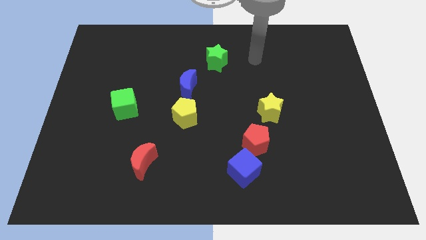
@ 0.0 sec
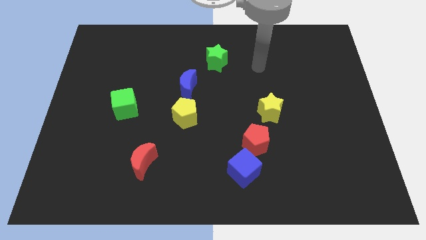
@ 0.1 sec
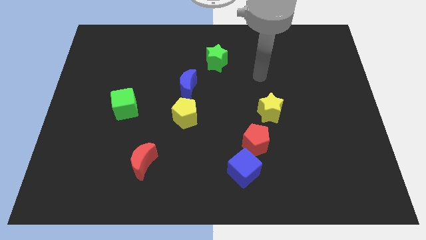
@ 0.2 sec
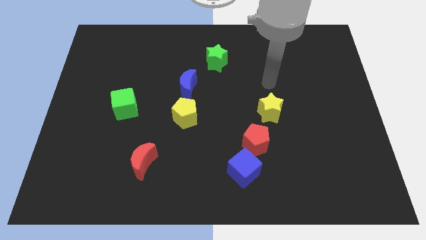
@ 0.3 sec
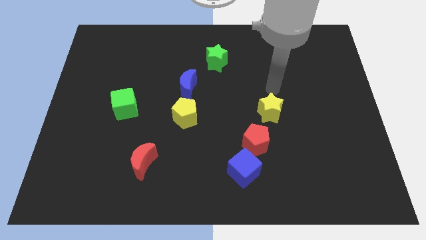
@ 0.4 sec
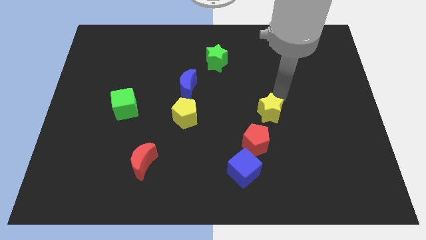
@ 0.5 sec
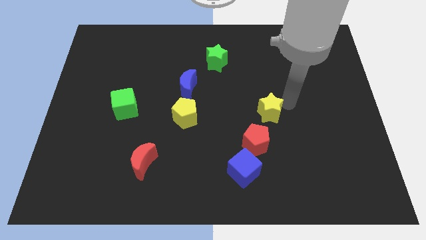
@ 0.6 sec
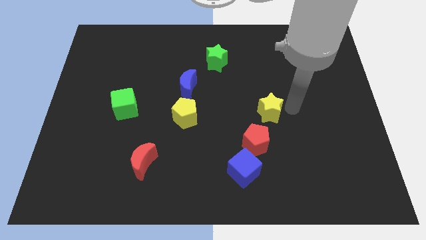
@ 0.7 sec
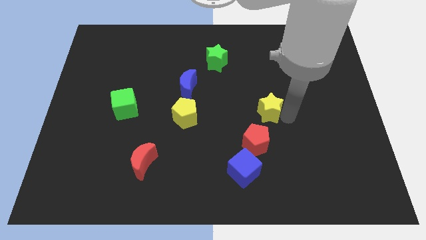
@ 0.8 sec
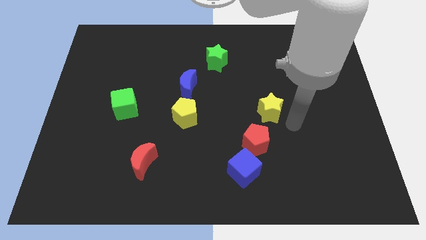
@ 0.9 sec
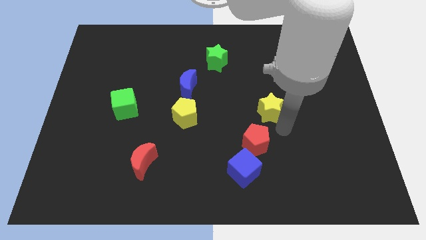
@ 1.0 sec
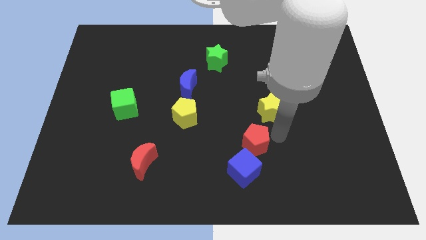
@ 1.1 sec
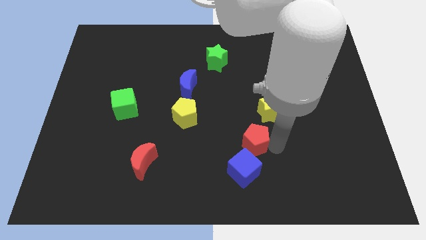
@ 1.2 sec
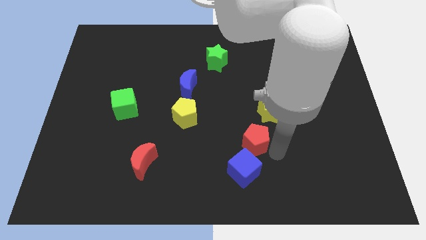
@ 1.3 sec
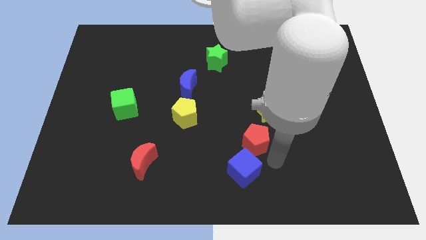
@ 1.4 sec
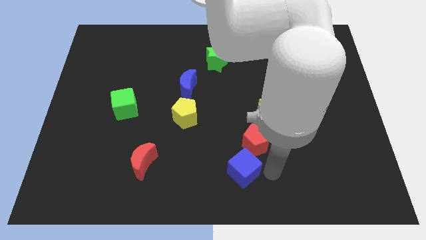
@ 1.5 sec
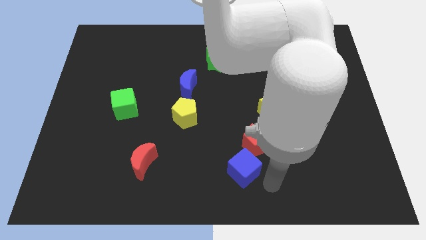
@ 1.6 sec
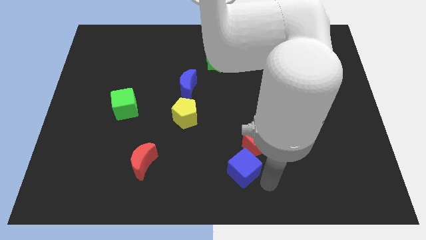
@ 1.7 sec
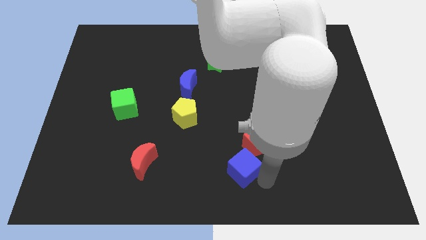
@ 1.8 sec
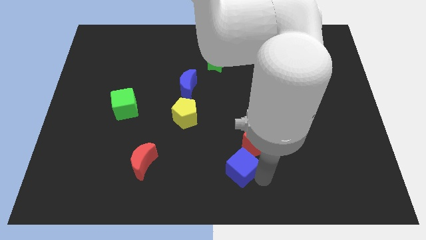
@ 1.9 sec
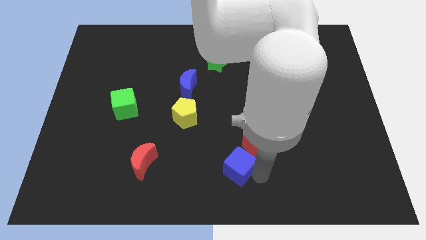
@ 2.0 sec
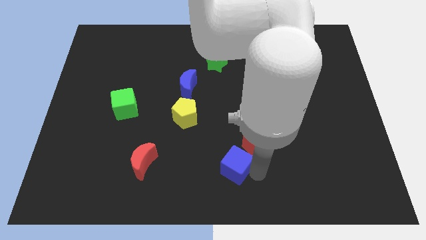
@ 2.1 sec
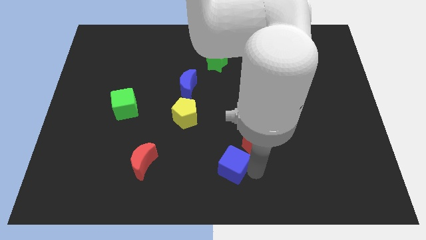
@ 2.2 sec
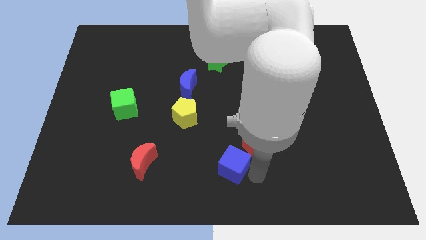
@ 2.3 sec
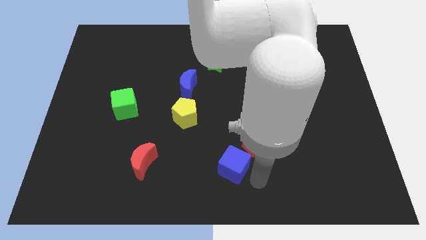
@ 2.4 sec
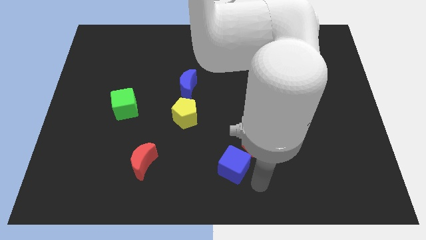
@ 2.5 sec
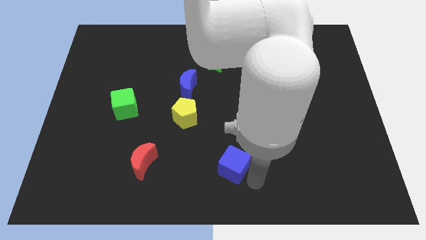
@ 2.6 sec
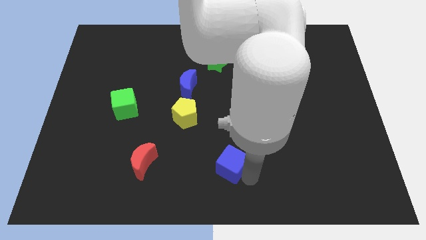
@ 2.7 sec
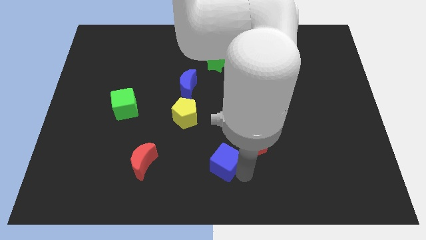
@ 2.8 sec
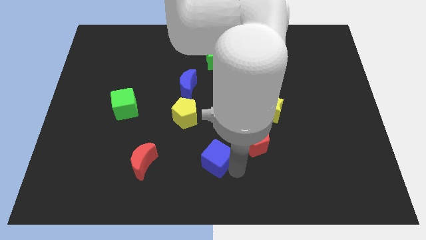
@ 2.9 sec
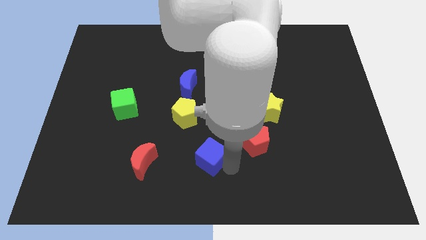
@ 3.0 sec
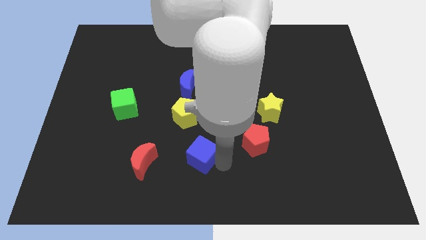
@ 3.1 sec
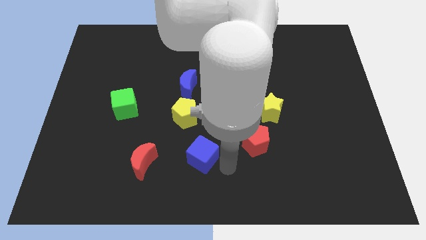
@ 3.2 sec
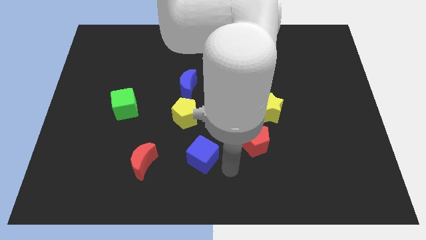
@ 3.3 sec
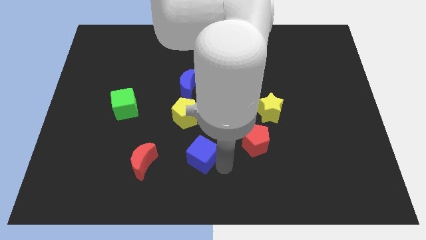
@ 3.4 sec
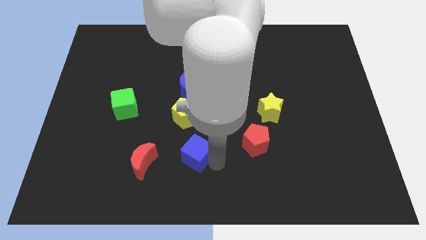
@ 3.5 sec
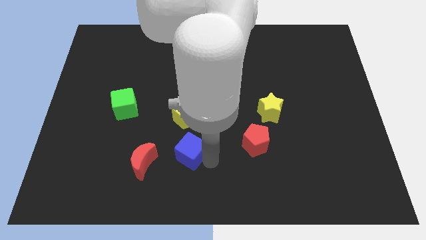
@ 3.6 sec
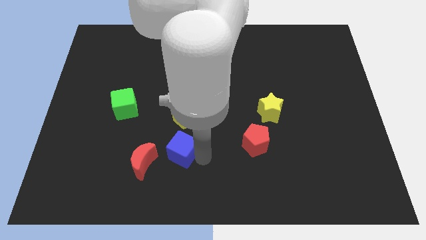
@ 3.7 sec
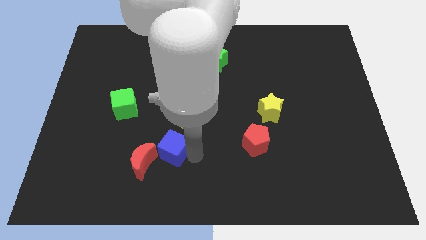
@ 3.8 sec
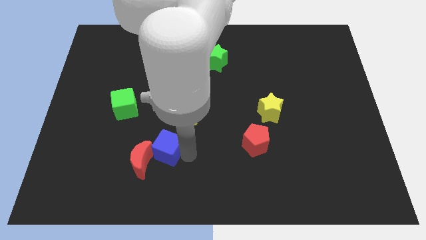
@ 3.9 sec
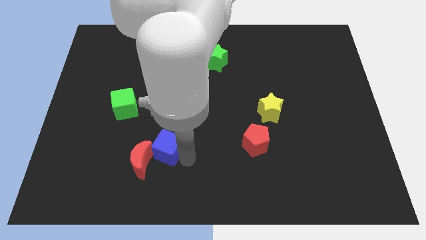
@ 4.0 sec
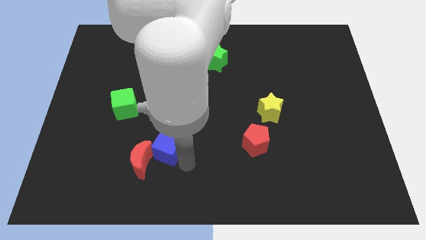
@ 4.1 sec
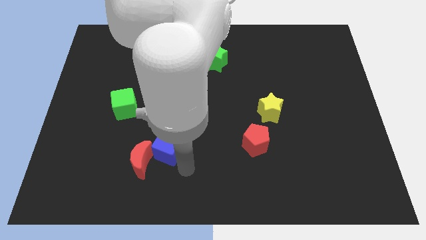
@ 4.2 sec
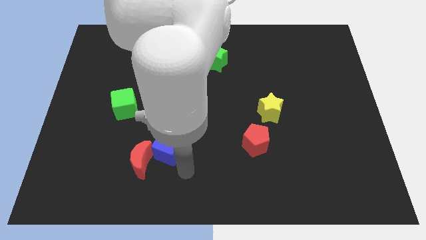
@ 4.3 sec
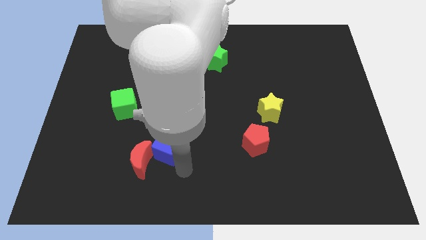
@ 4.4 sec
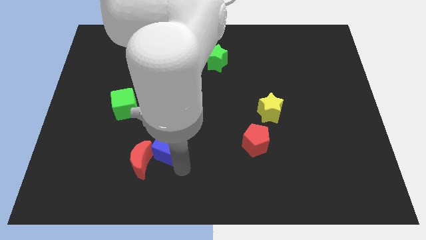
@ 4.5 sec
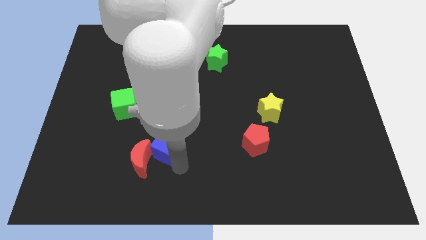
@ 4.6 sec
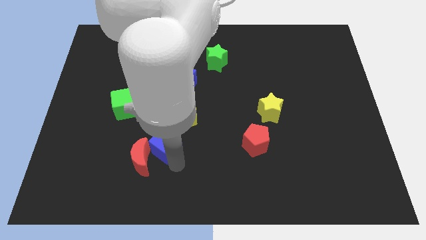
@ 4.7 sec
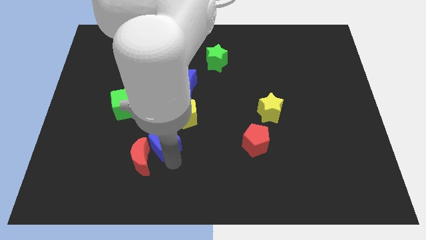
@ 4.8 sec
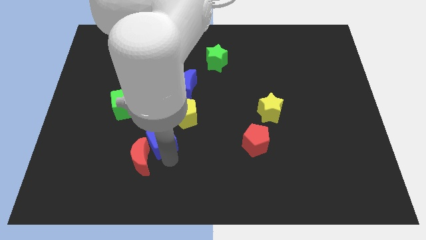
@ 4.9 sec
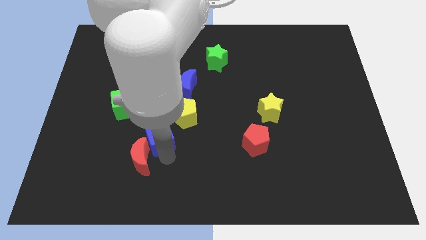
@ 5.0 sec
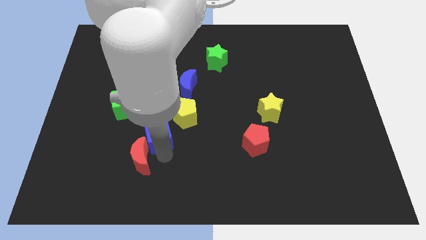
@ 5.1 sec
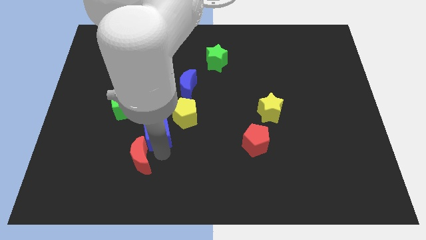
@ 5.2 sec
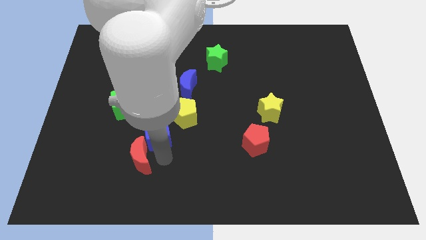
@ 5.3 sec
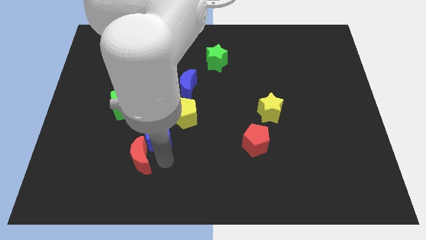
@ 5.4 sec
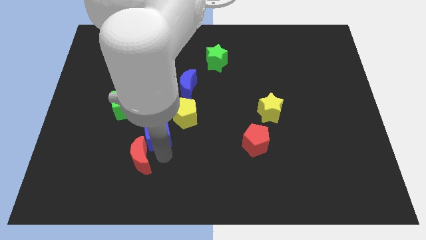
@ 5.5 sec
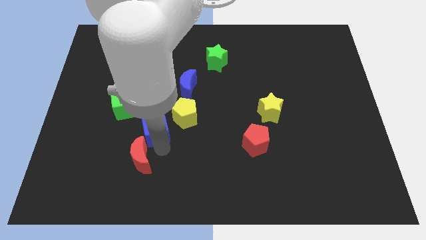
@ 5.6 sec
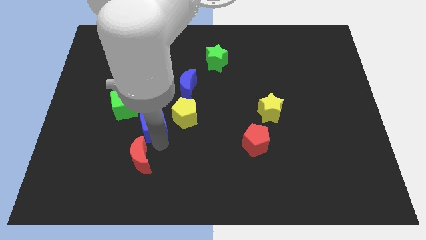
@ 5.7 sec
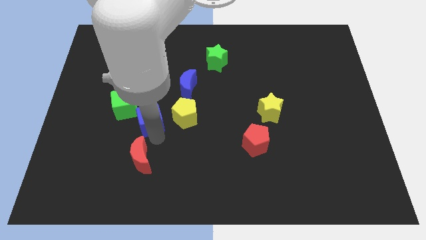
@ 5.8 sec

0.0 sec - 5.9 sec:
push the blue cube to the bottom left of the blue moon

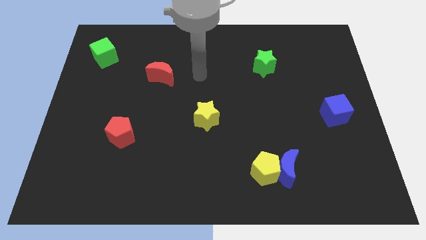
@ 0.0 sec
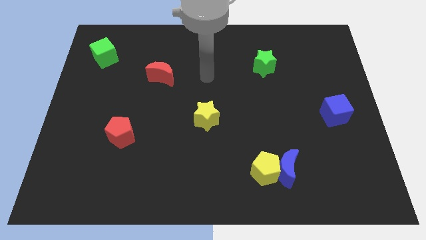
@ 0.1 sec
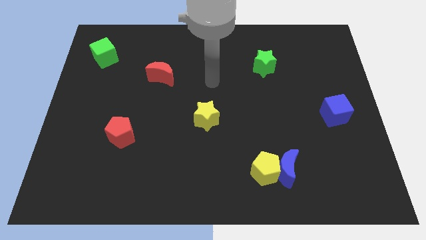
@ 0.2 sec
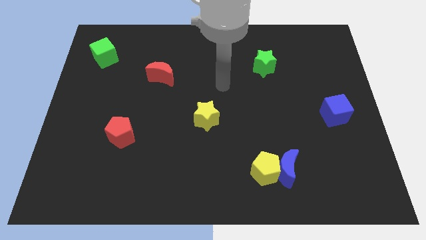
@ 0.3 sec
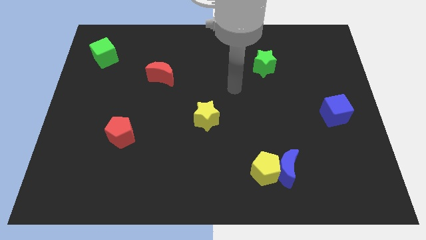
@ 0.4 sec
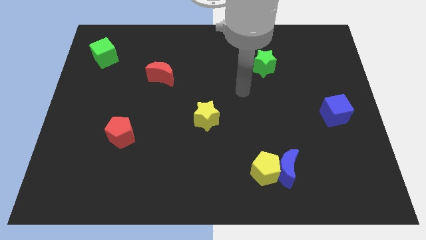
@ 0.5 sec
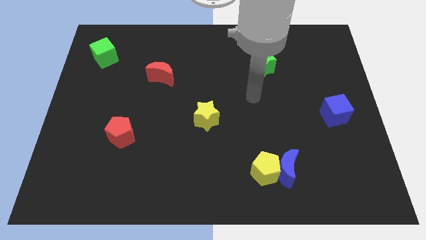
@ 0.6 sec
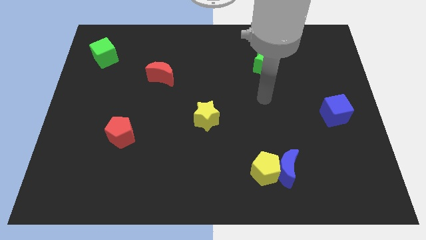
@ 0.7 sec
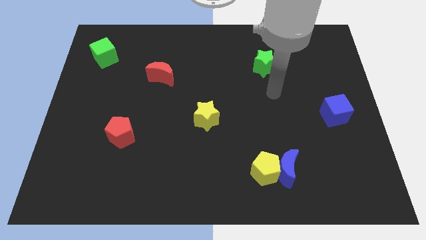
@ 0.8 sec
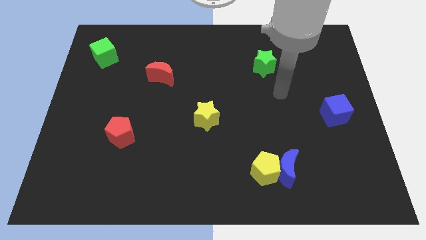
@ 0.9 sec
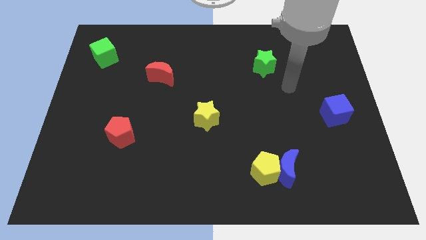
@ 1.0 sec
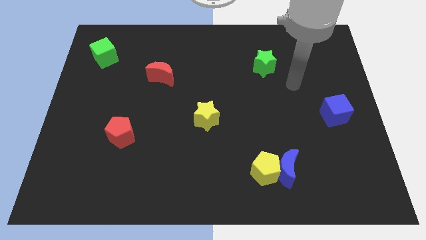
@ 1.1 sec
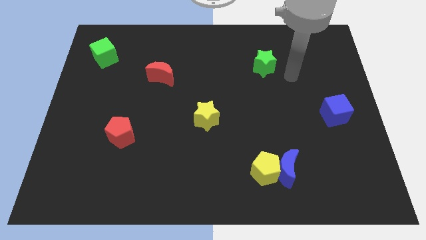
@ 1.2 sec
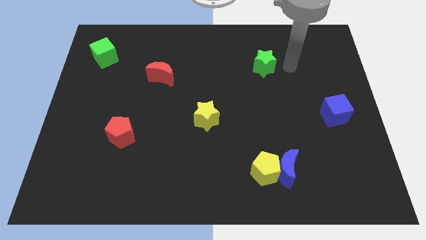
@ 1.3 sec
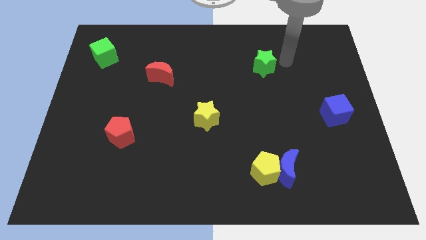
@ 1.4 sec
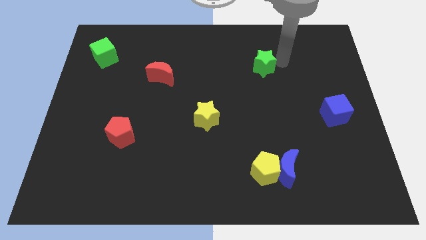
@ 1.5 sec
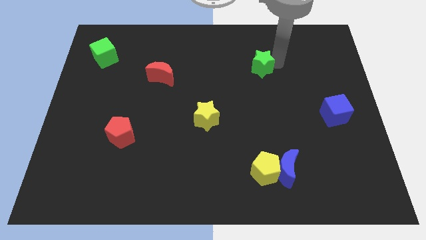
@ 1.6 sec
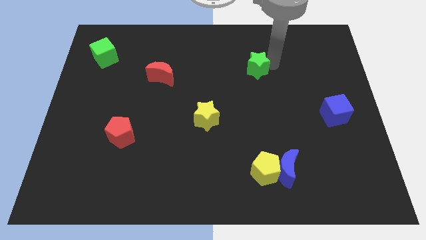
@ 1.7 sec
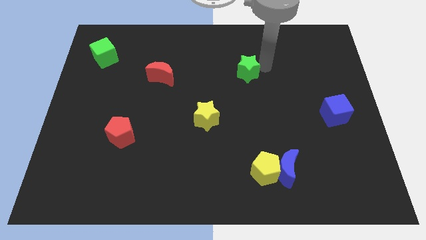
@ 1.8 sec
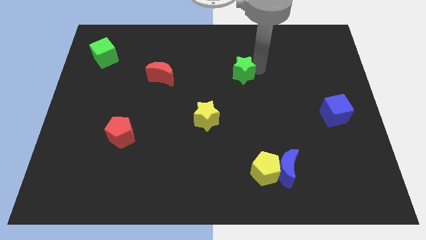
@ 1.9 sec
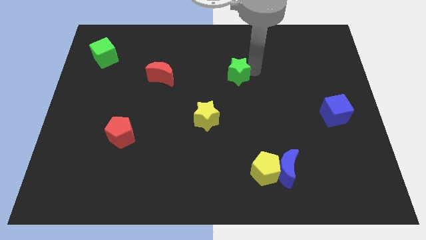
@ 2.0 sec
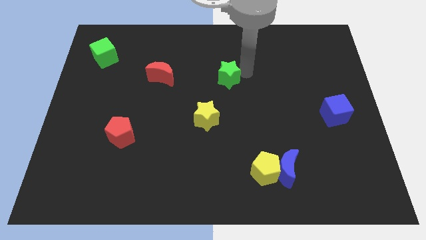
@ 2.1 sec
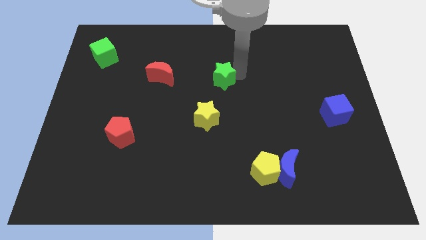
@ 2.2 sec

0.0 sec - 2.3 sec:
slide the green star to the top of the yellow star
